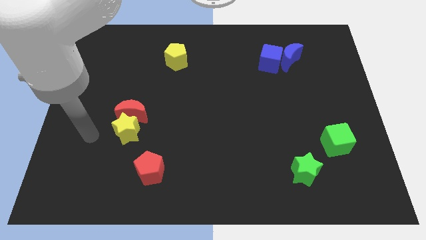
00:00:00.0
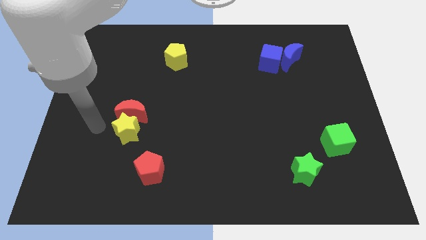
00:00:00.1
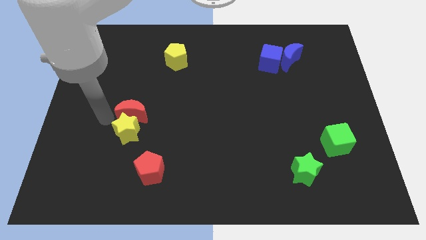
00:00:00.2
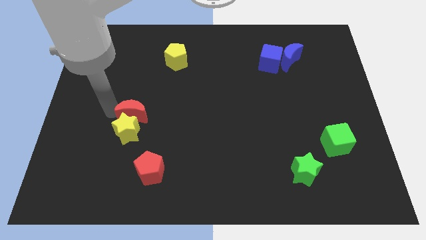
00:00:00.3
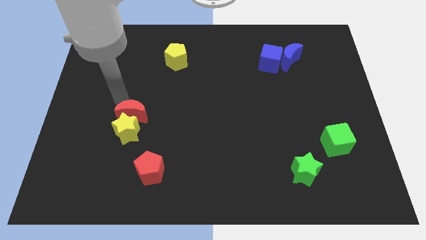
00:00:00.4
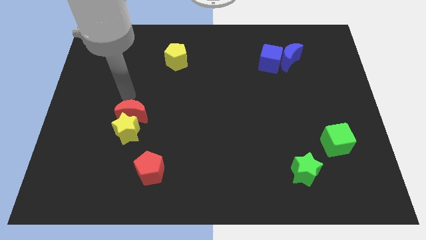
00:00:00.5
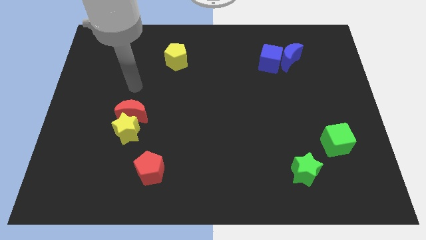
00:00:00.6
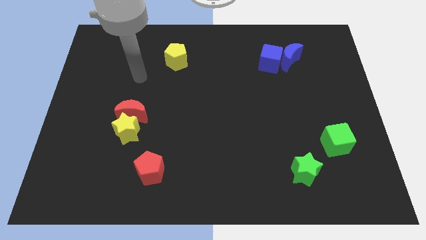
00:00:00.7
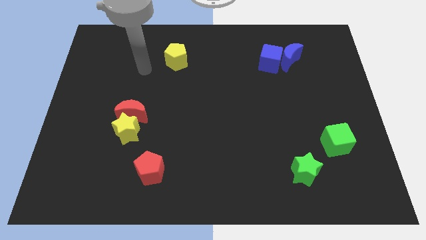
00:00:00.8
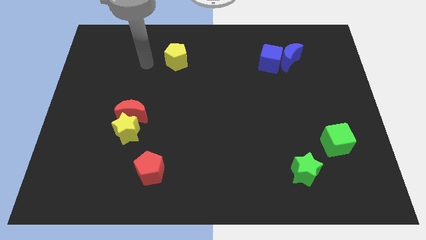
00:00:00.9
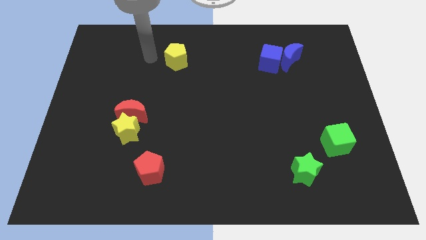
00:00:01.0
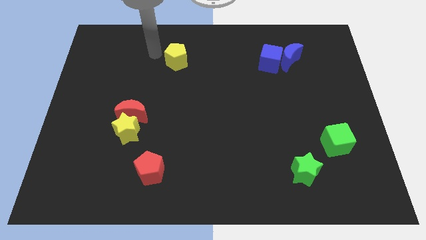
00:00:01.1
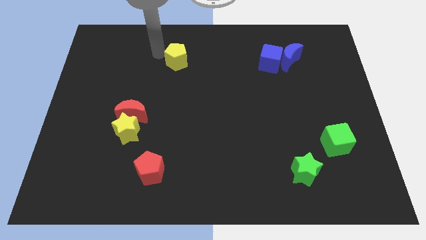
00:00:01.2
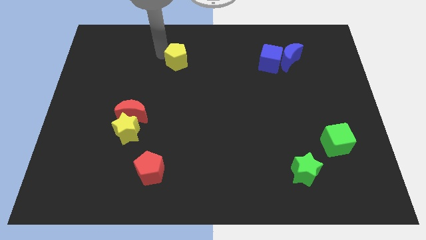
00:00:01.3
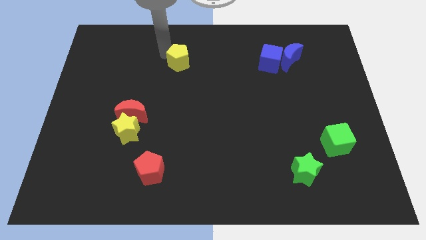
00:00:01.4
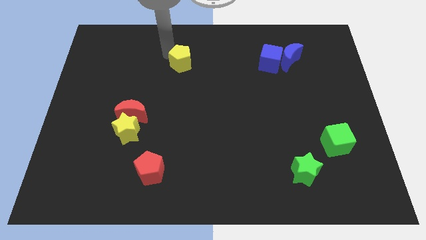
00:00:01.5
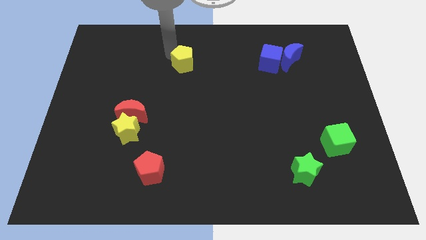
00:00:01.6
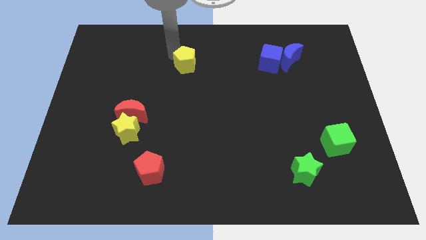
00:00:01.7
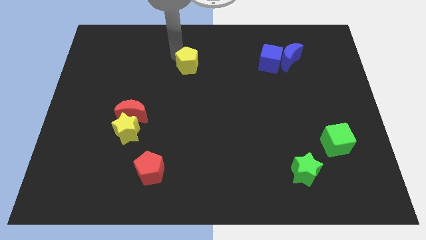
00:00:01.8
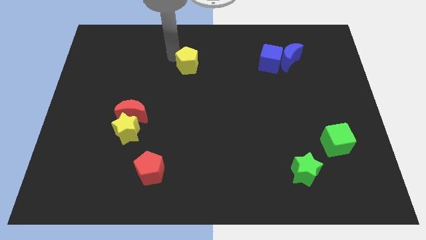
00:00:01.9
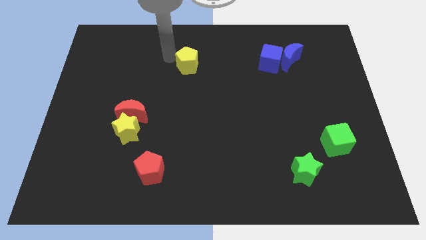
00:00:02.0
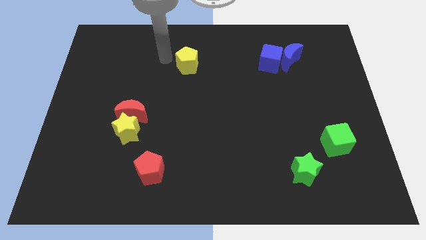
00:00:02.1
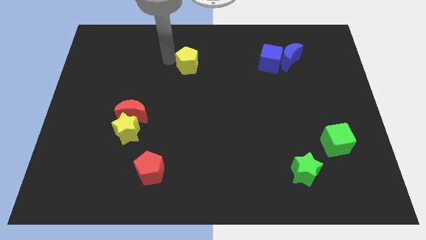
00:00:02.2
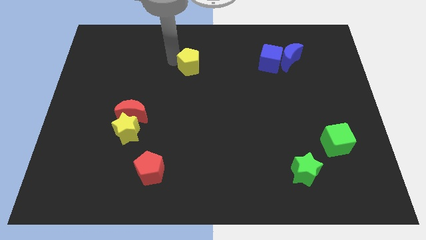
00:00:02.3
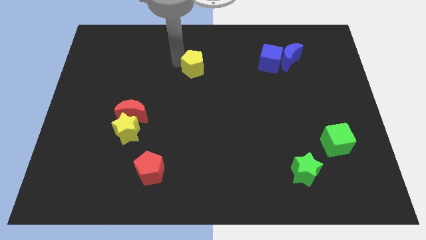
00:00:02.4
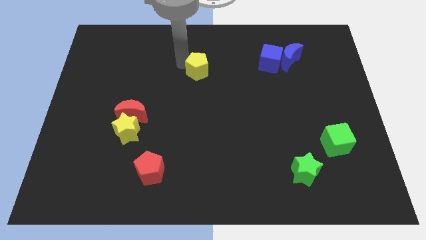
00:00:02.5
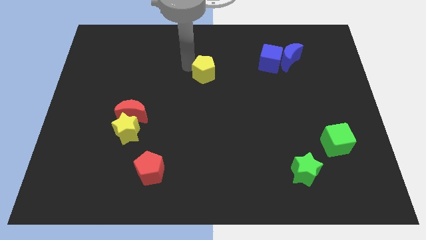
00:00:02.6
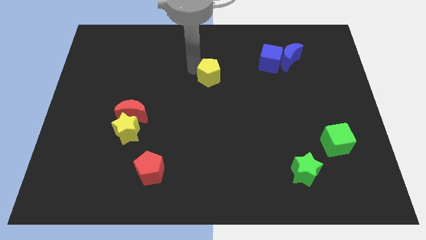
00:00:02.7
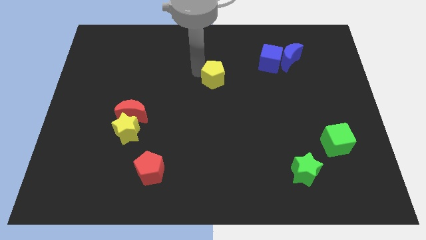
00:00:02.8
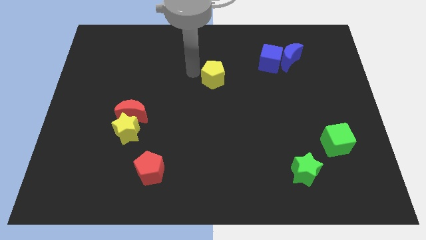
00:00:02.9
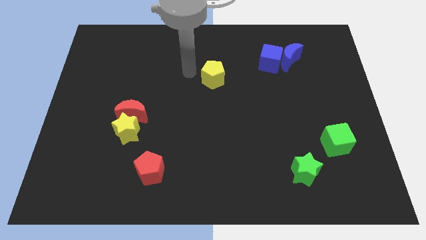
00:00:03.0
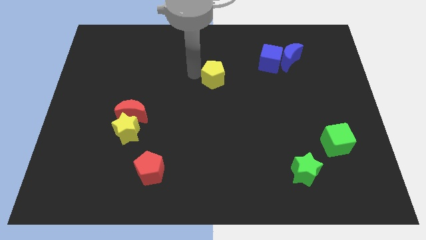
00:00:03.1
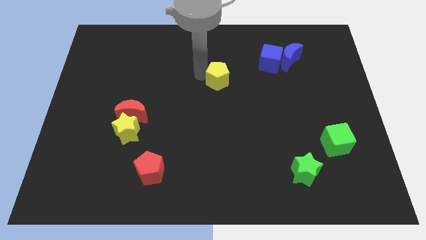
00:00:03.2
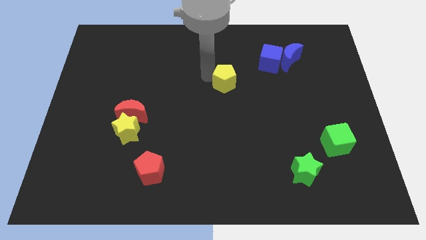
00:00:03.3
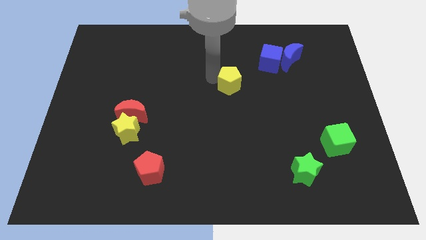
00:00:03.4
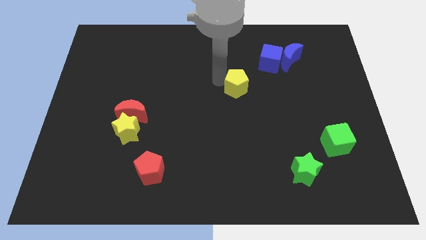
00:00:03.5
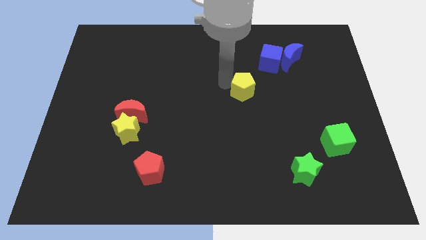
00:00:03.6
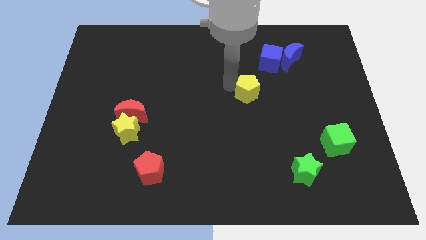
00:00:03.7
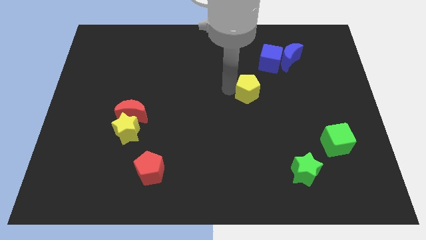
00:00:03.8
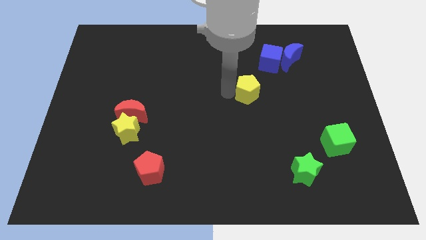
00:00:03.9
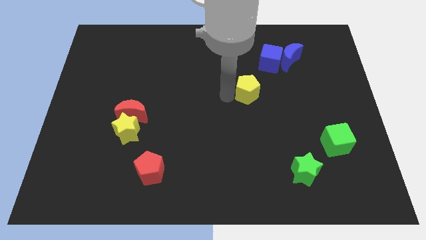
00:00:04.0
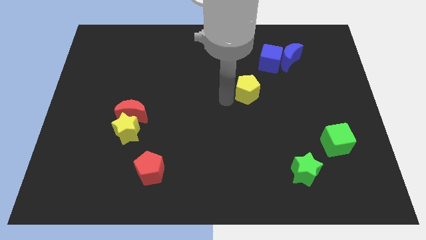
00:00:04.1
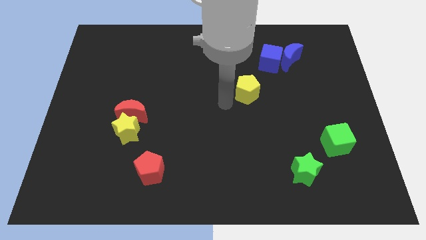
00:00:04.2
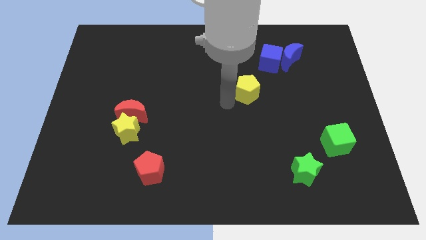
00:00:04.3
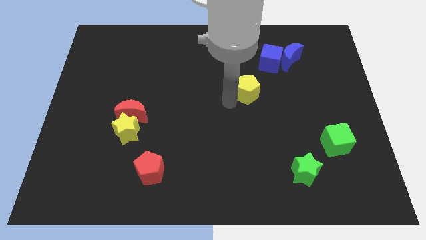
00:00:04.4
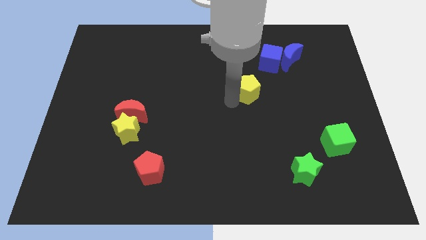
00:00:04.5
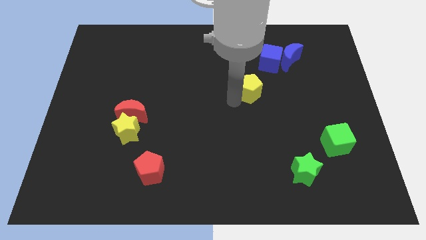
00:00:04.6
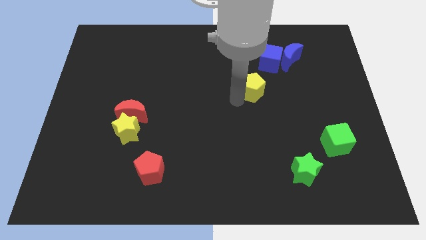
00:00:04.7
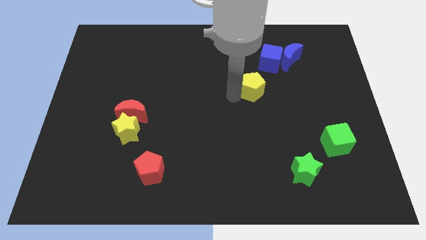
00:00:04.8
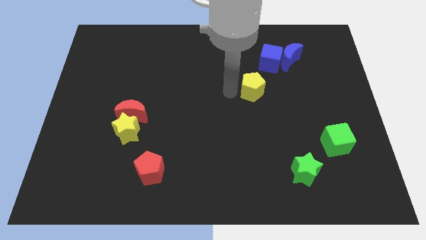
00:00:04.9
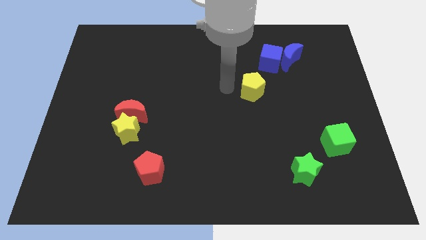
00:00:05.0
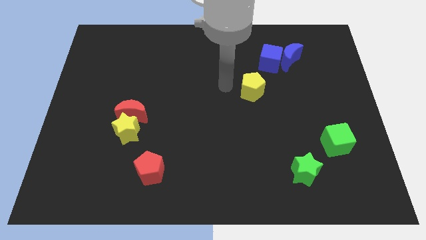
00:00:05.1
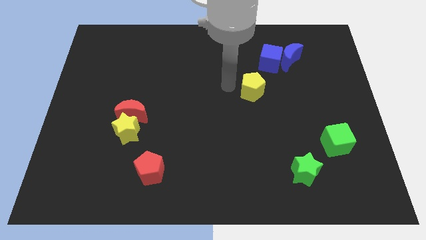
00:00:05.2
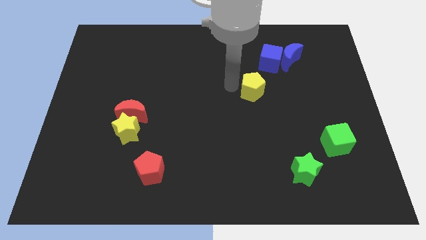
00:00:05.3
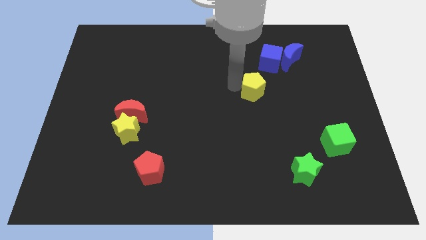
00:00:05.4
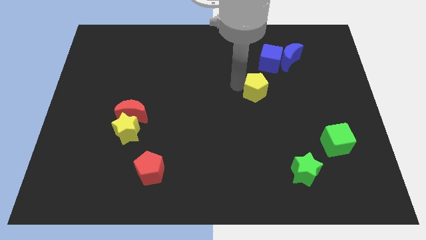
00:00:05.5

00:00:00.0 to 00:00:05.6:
move the yellow pentagon to the bottom of the blue cube

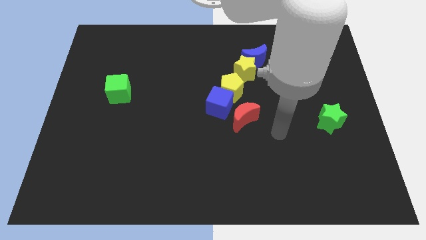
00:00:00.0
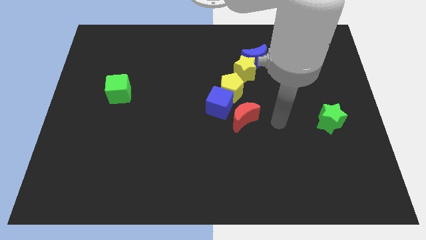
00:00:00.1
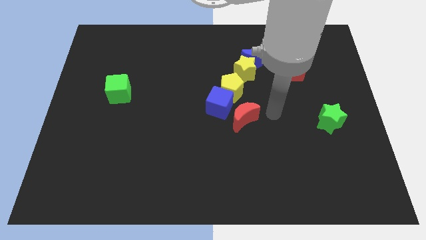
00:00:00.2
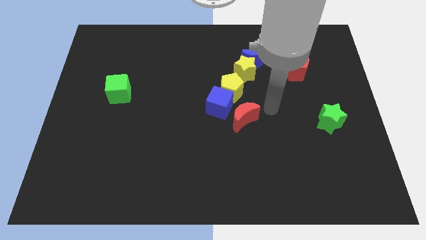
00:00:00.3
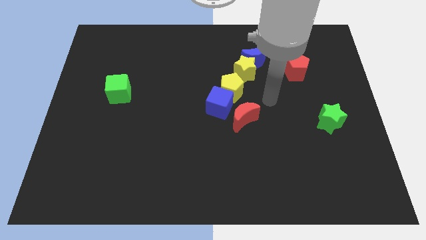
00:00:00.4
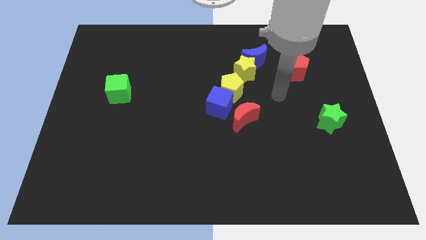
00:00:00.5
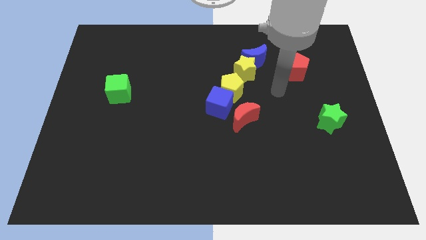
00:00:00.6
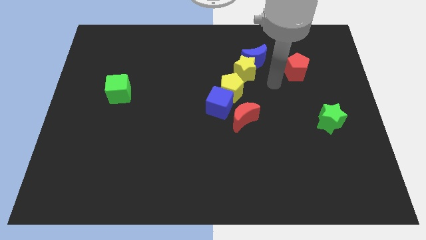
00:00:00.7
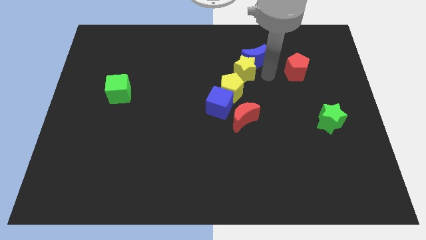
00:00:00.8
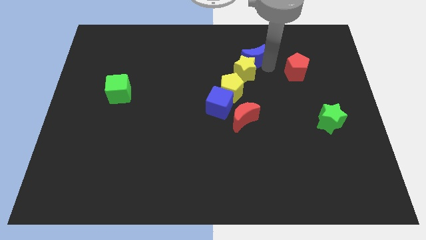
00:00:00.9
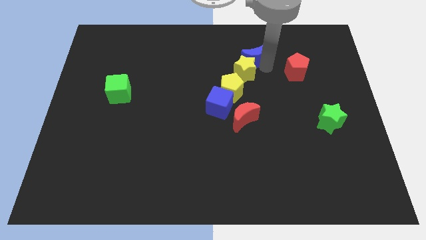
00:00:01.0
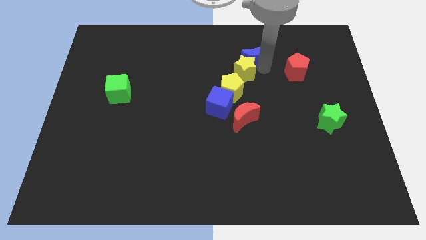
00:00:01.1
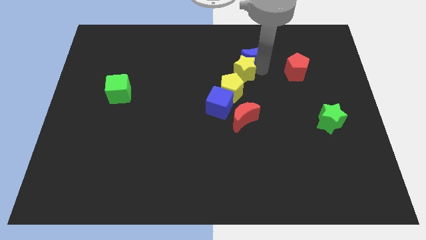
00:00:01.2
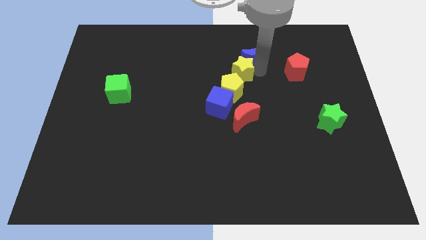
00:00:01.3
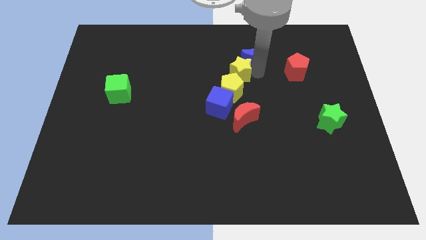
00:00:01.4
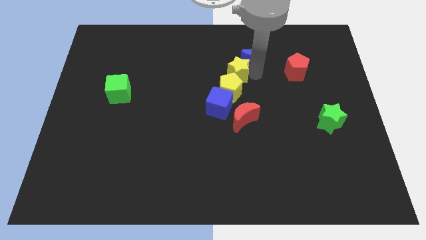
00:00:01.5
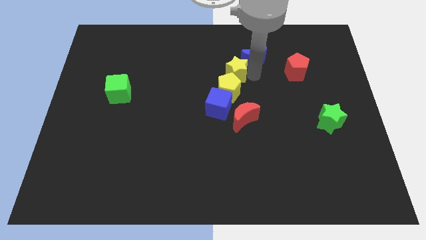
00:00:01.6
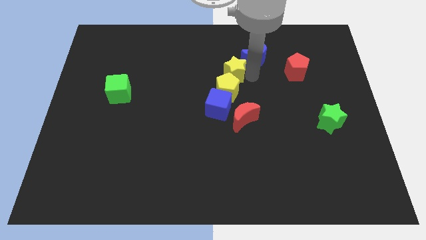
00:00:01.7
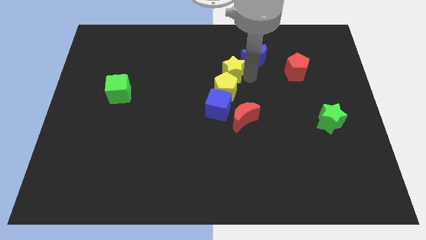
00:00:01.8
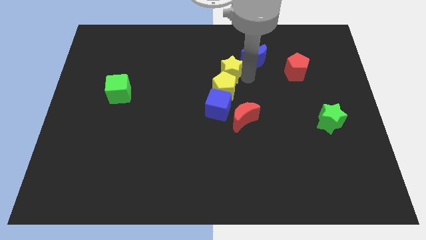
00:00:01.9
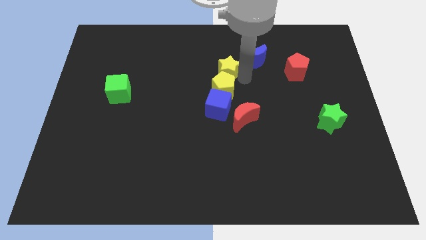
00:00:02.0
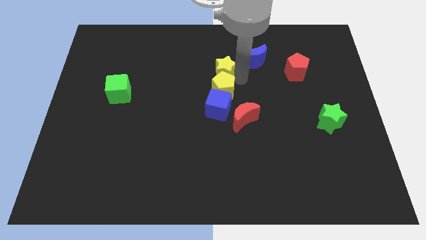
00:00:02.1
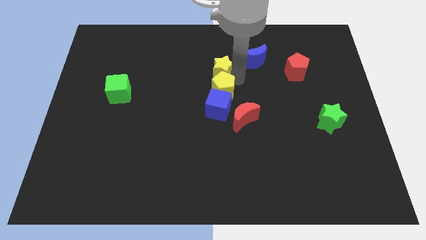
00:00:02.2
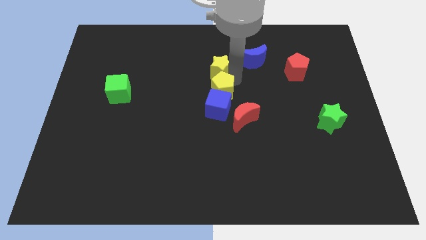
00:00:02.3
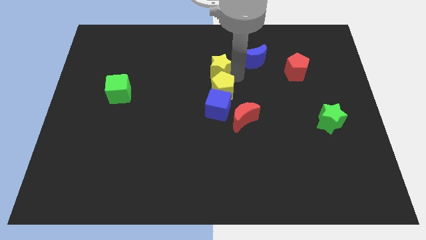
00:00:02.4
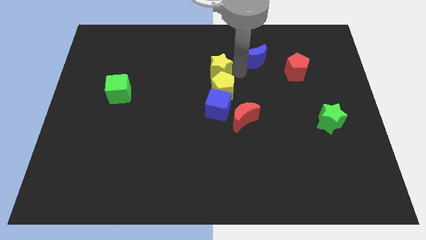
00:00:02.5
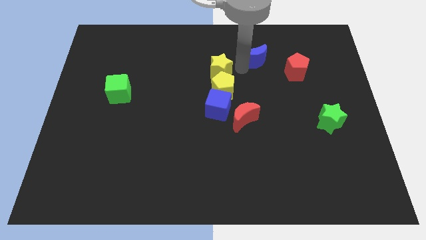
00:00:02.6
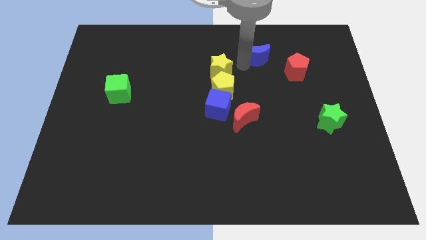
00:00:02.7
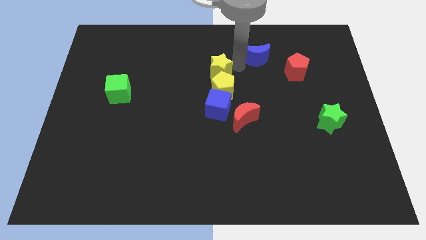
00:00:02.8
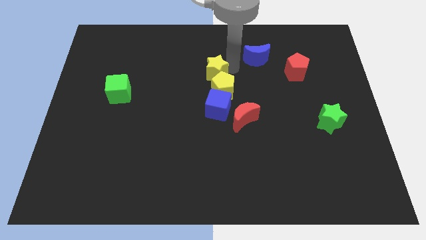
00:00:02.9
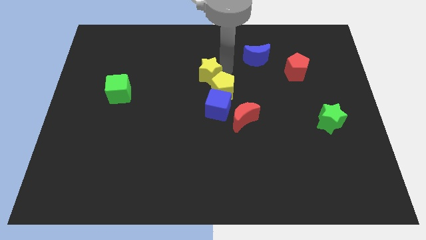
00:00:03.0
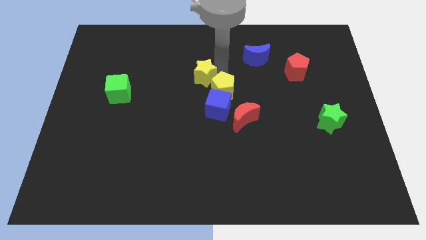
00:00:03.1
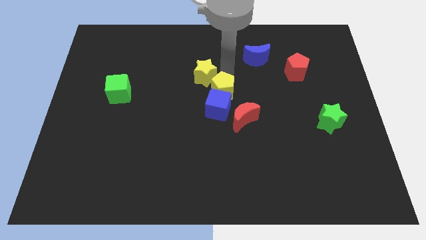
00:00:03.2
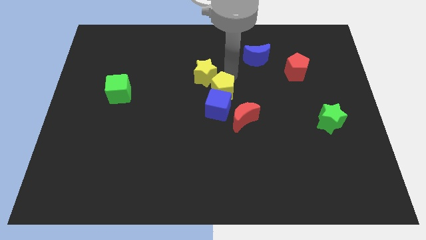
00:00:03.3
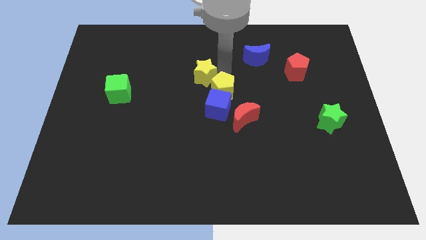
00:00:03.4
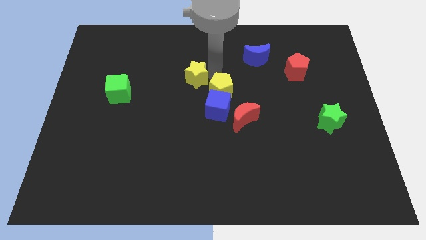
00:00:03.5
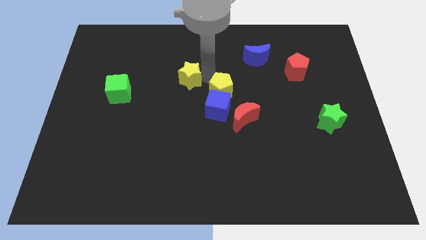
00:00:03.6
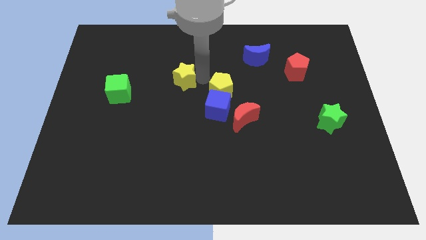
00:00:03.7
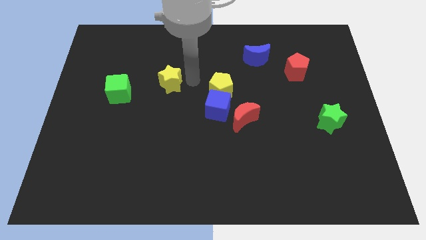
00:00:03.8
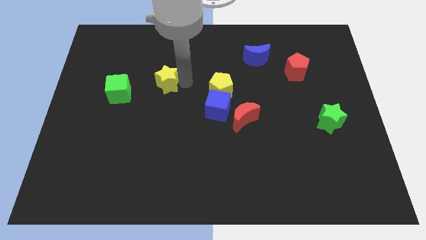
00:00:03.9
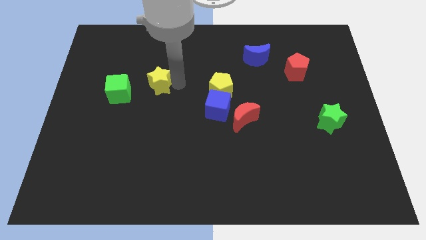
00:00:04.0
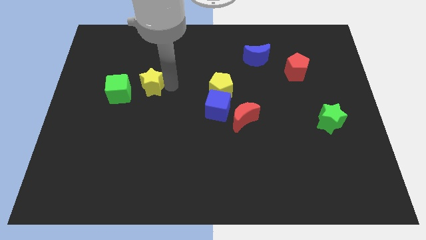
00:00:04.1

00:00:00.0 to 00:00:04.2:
move the yellow star to the top right of the green cube
